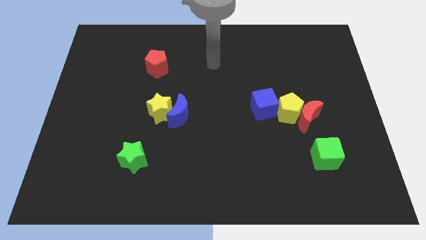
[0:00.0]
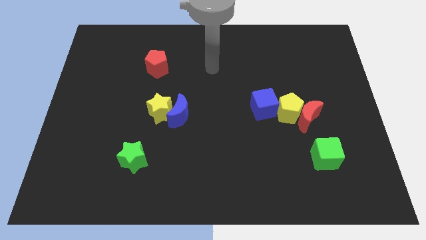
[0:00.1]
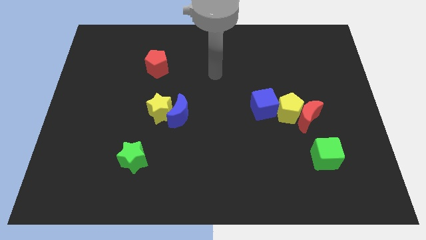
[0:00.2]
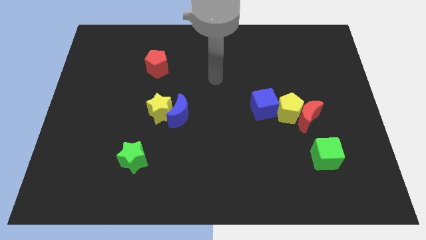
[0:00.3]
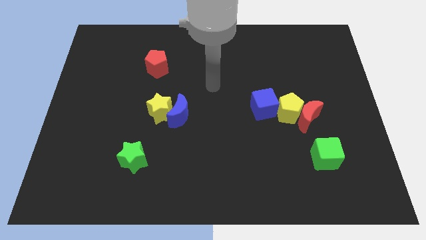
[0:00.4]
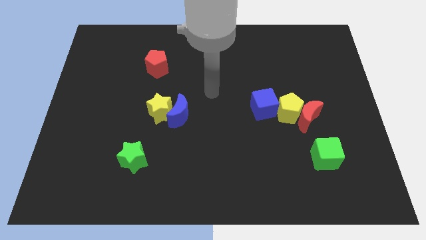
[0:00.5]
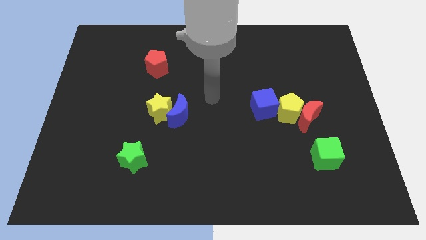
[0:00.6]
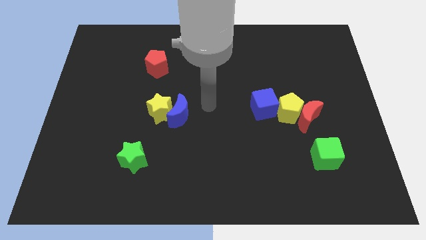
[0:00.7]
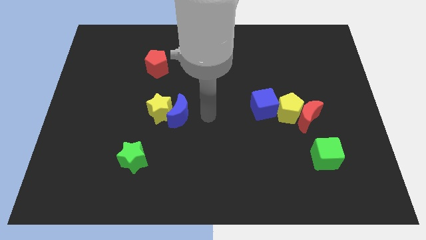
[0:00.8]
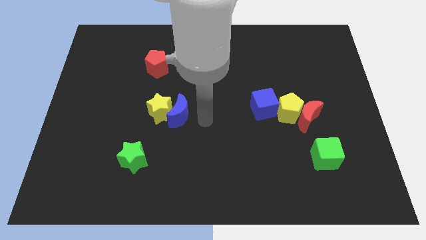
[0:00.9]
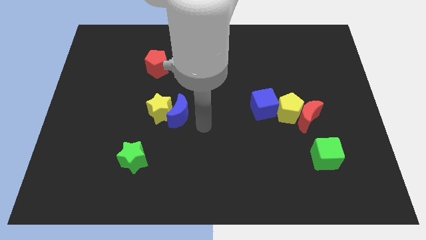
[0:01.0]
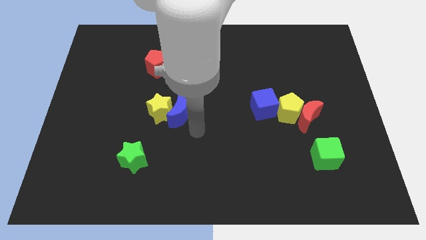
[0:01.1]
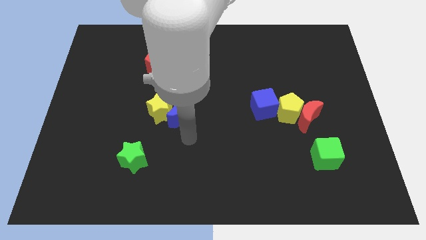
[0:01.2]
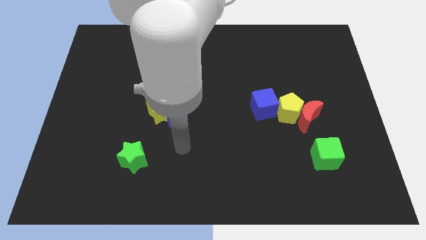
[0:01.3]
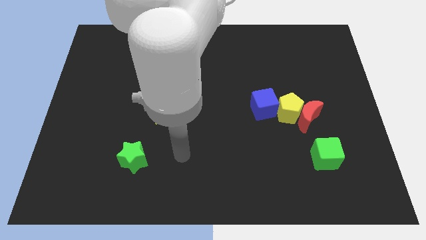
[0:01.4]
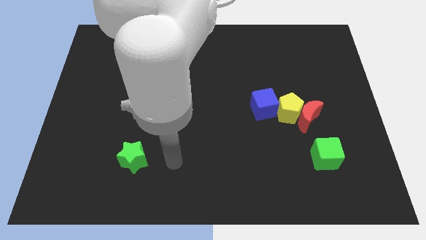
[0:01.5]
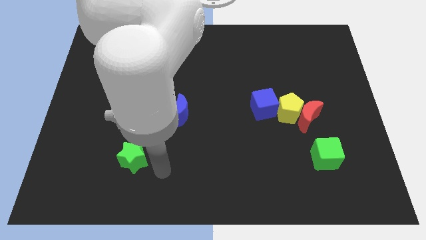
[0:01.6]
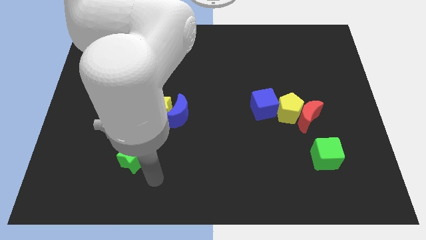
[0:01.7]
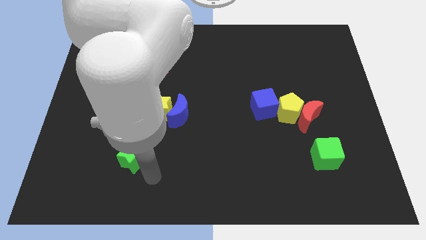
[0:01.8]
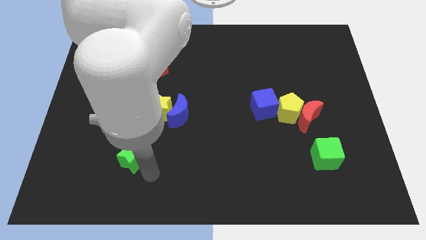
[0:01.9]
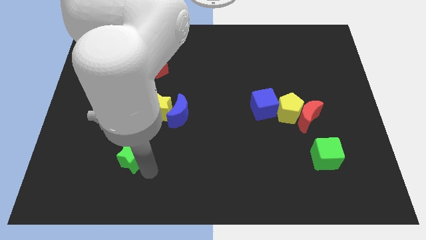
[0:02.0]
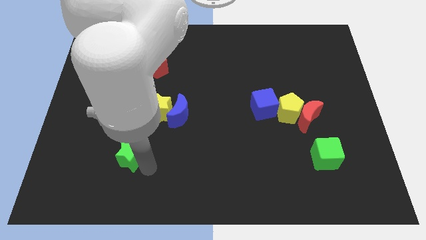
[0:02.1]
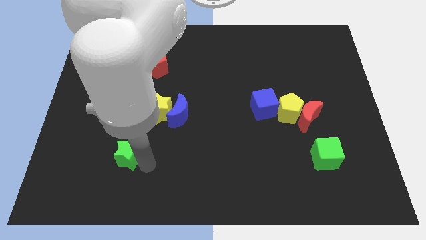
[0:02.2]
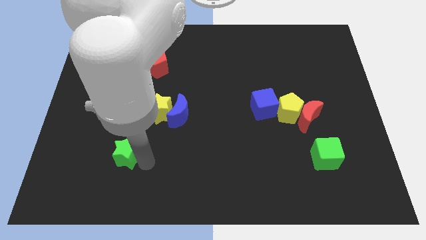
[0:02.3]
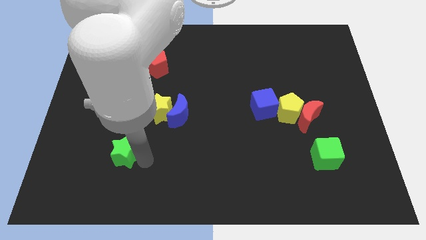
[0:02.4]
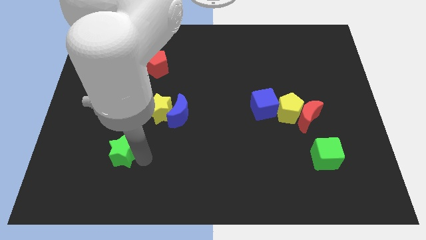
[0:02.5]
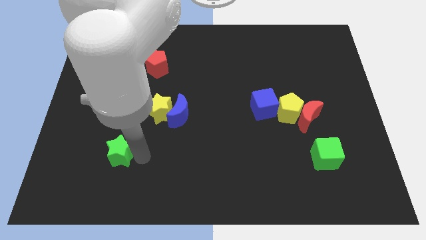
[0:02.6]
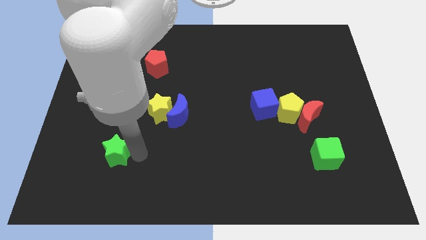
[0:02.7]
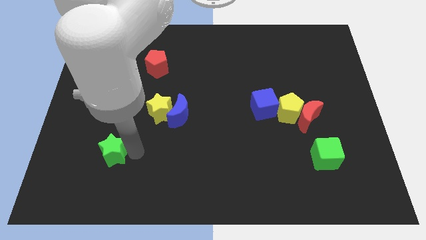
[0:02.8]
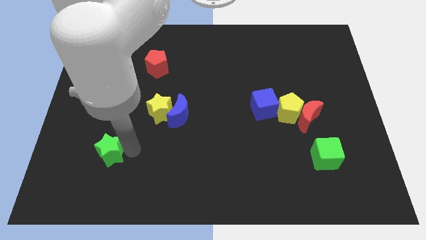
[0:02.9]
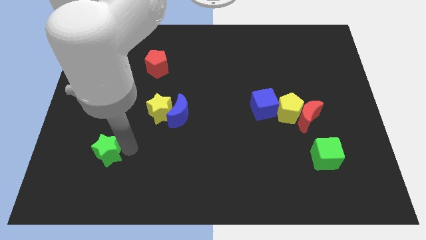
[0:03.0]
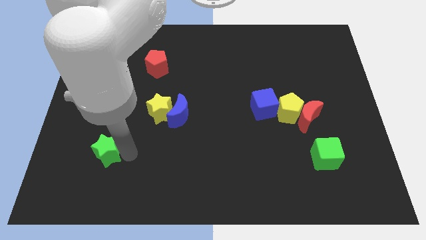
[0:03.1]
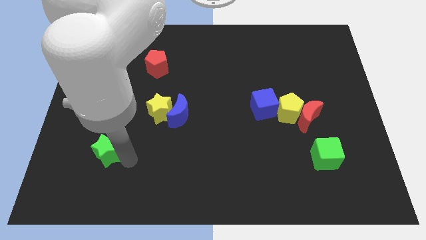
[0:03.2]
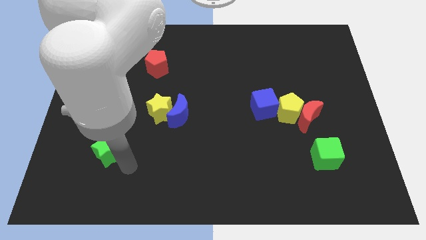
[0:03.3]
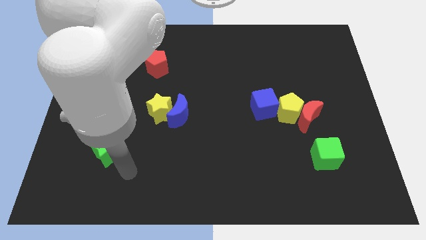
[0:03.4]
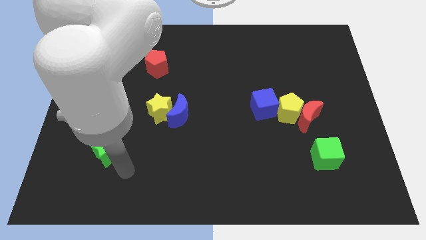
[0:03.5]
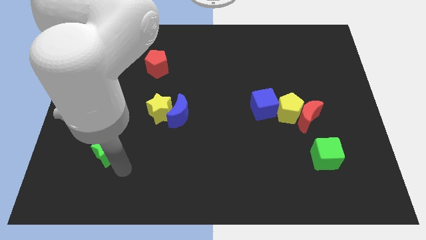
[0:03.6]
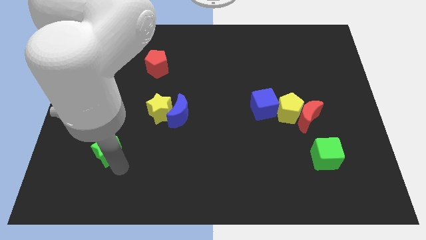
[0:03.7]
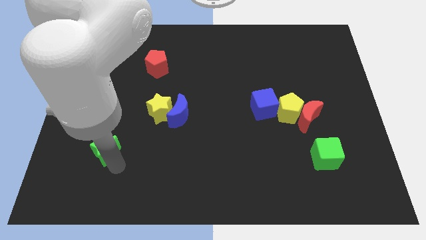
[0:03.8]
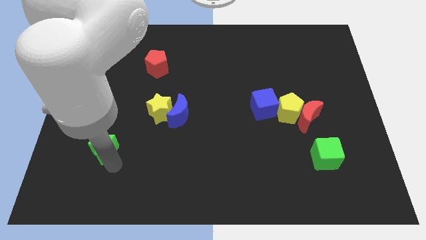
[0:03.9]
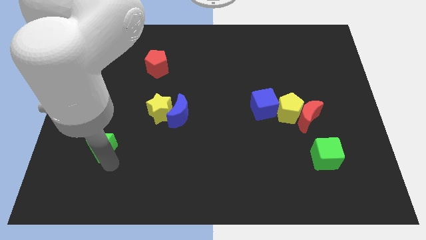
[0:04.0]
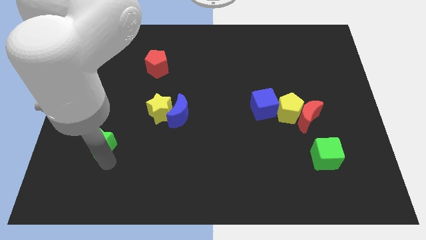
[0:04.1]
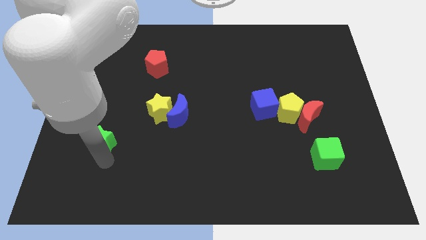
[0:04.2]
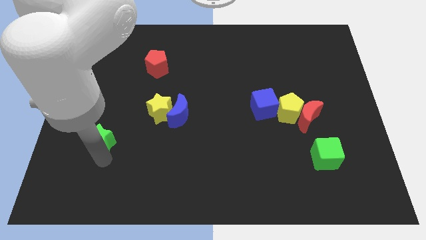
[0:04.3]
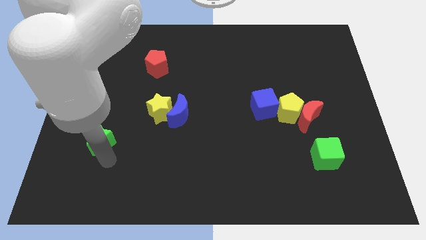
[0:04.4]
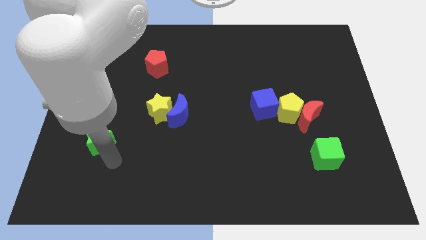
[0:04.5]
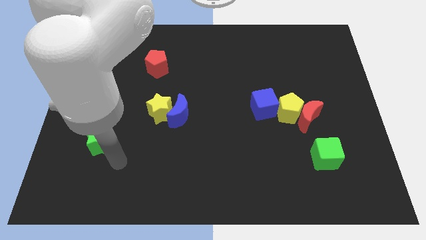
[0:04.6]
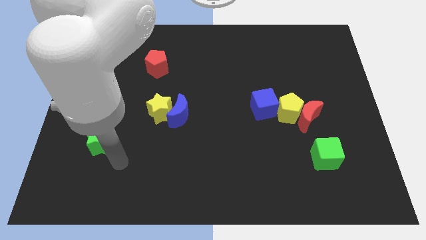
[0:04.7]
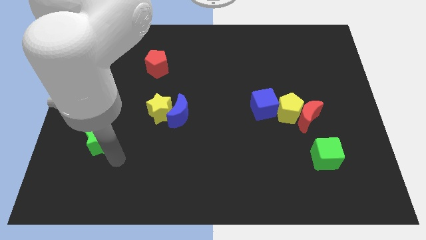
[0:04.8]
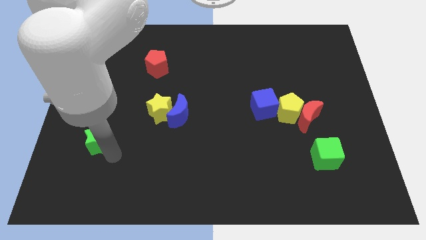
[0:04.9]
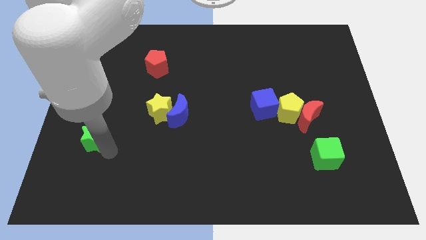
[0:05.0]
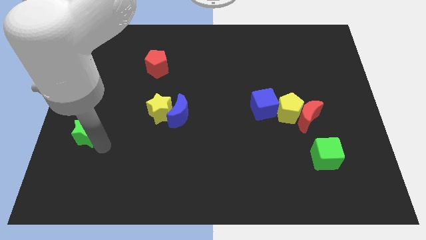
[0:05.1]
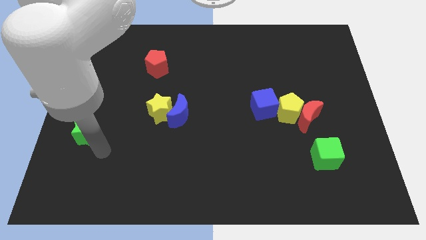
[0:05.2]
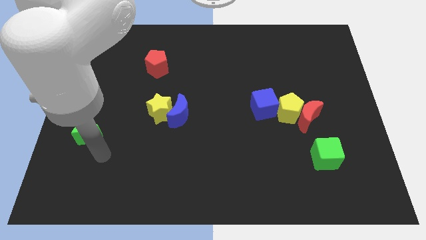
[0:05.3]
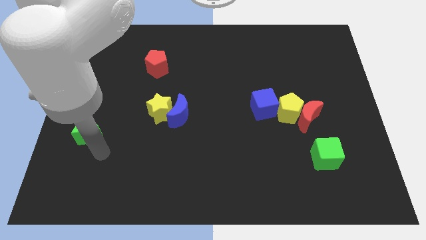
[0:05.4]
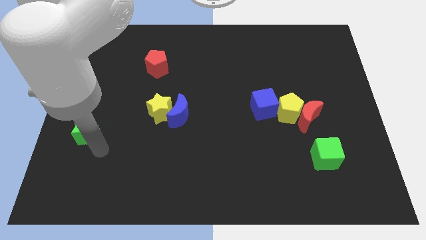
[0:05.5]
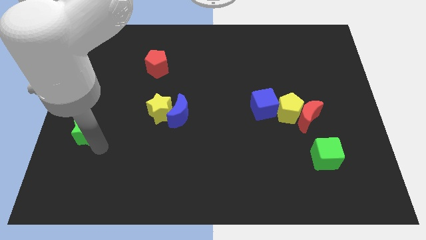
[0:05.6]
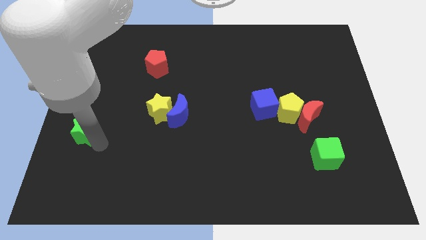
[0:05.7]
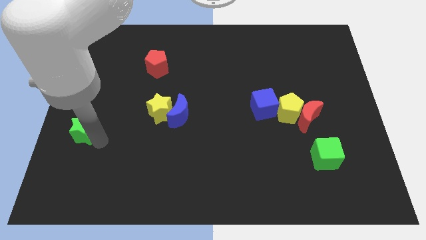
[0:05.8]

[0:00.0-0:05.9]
move the green star to the left side
